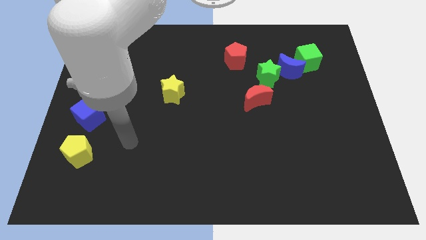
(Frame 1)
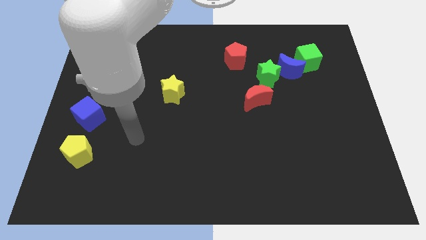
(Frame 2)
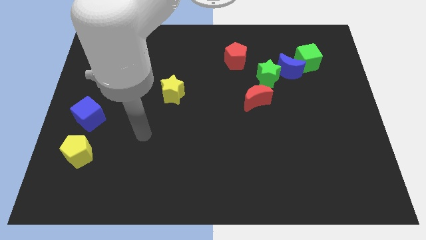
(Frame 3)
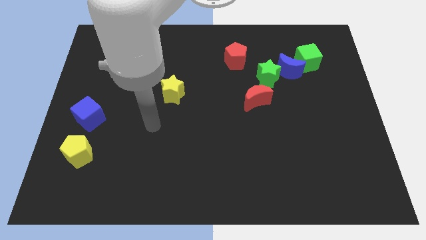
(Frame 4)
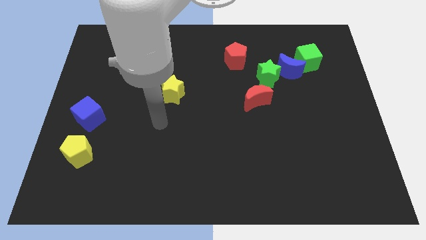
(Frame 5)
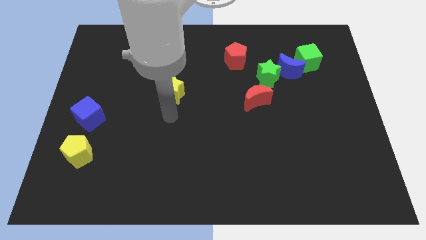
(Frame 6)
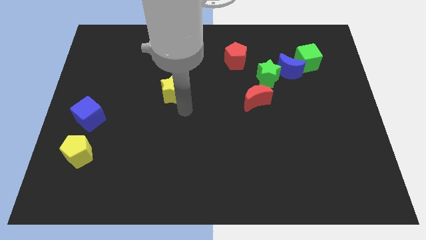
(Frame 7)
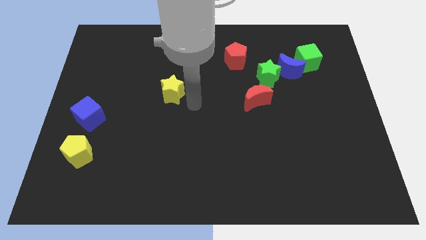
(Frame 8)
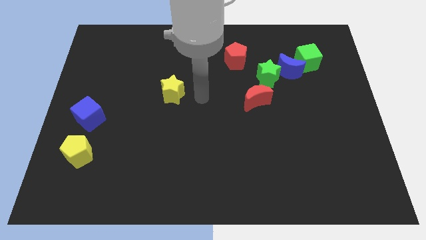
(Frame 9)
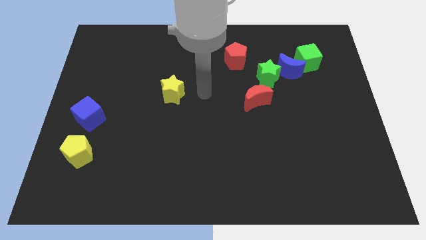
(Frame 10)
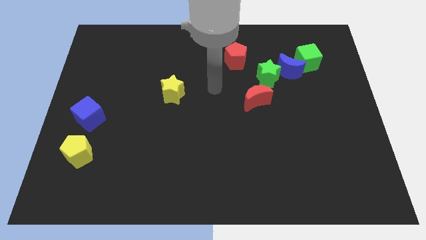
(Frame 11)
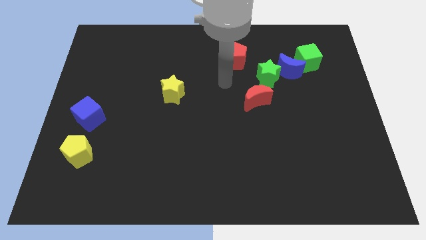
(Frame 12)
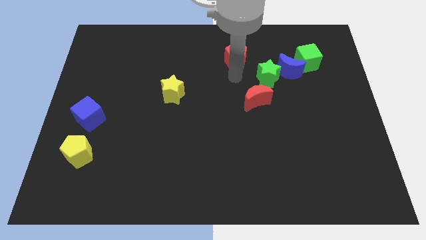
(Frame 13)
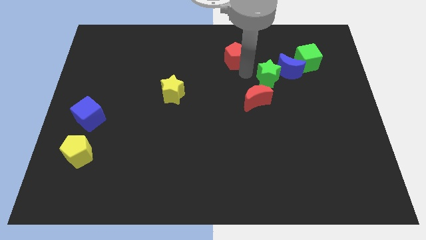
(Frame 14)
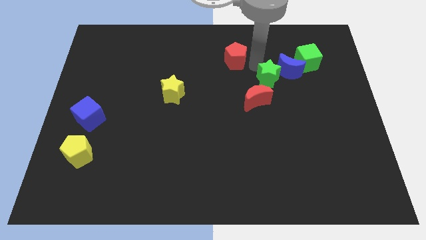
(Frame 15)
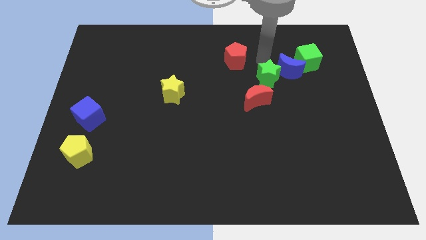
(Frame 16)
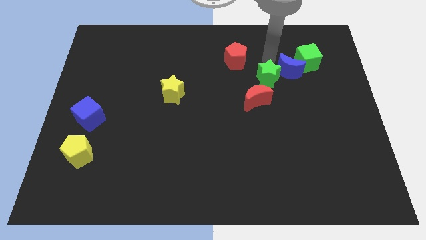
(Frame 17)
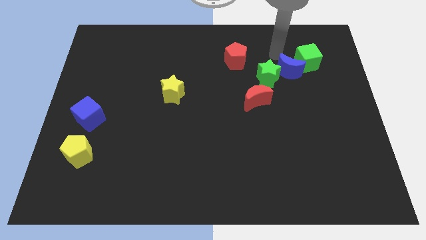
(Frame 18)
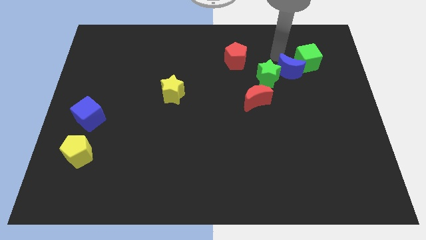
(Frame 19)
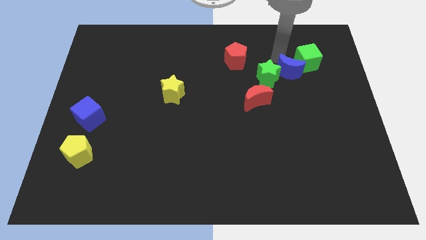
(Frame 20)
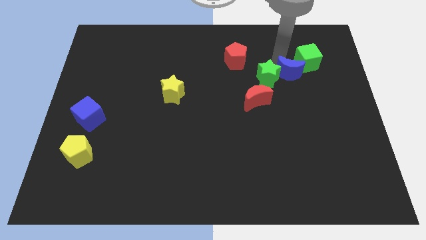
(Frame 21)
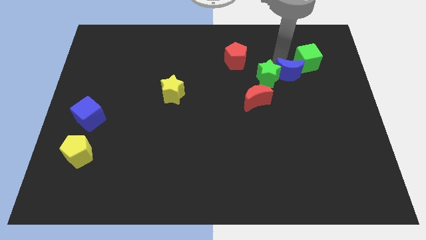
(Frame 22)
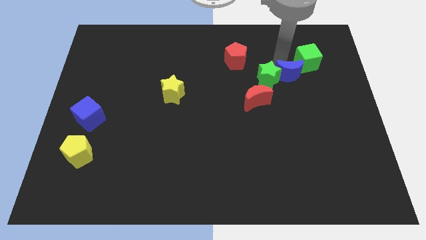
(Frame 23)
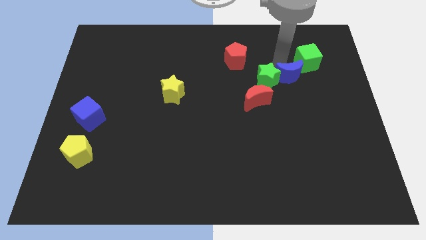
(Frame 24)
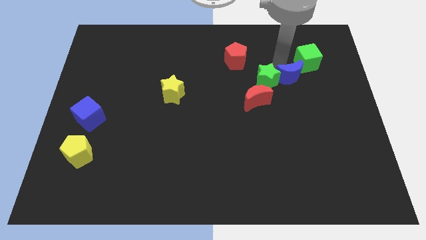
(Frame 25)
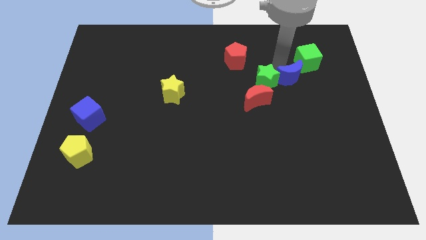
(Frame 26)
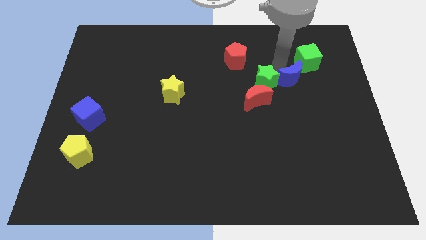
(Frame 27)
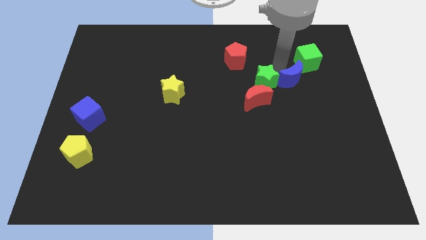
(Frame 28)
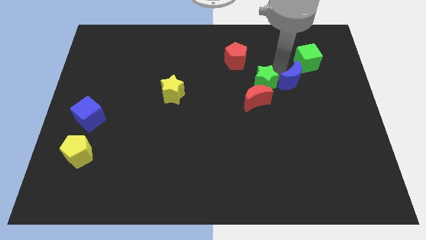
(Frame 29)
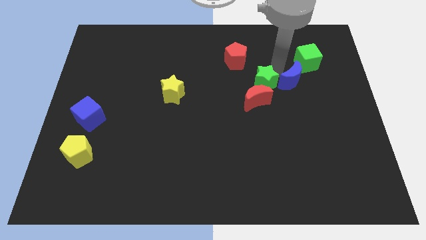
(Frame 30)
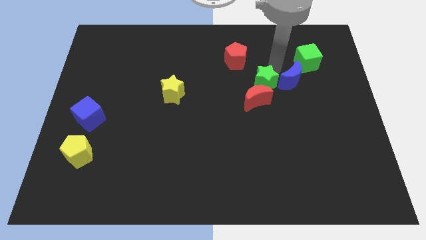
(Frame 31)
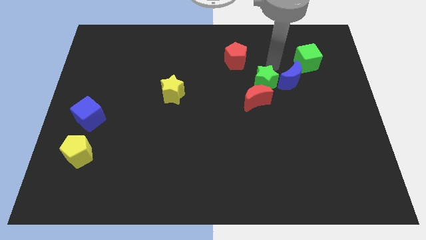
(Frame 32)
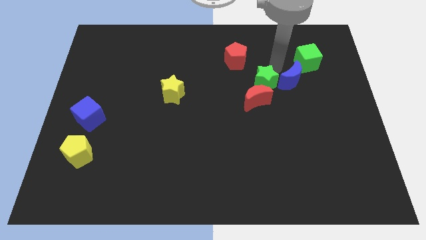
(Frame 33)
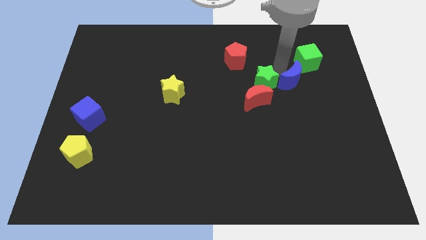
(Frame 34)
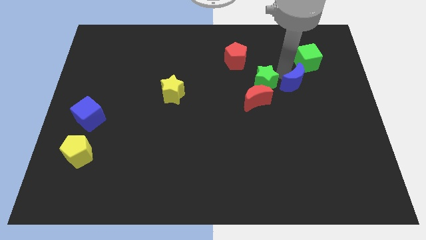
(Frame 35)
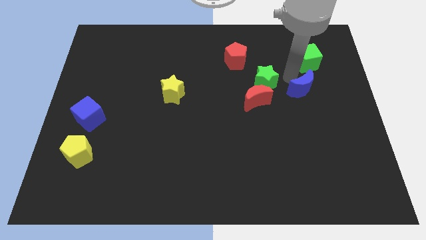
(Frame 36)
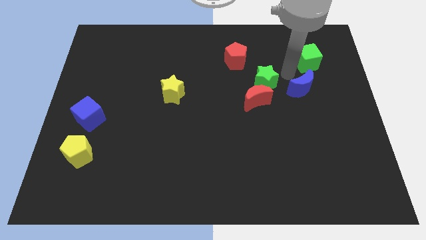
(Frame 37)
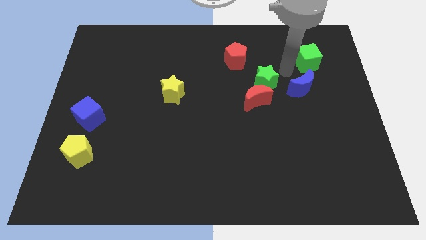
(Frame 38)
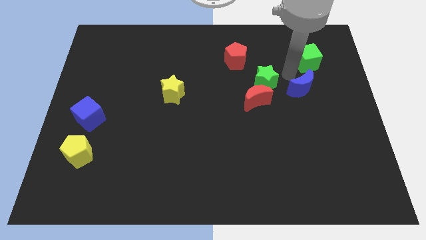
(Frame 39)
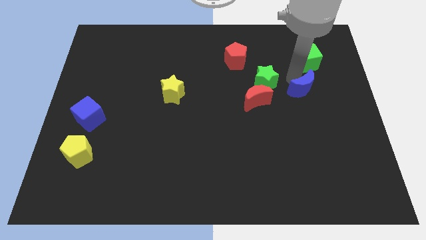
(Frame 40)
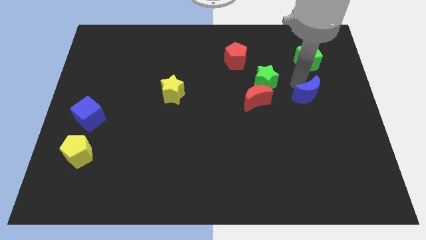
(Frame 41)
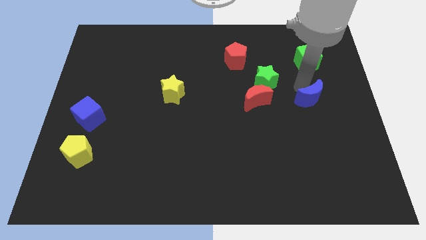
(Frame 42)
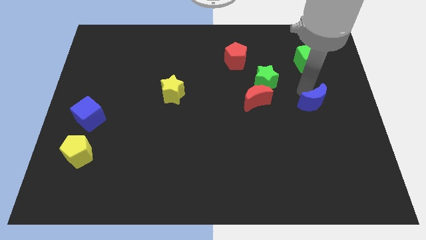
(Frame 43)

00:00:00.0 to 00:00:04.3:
separate the blue moon from the green star and green cube

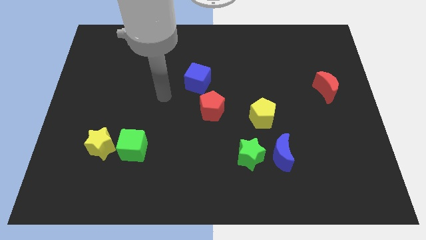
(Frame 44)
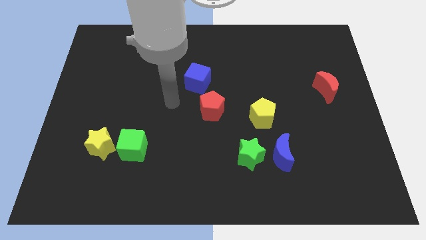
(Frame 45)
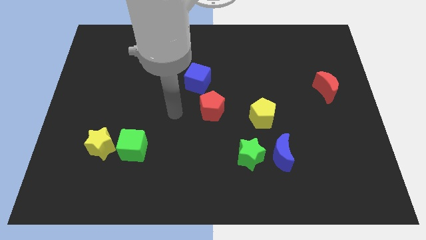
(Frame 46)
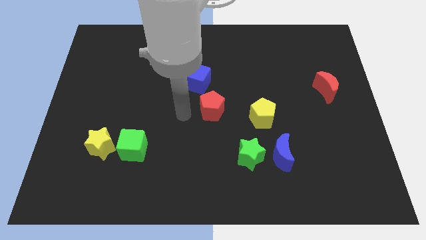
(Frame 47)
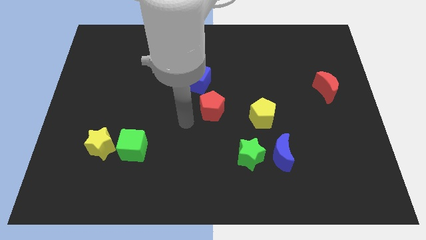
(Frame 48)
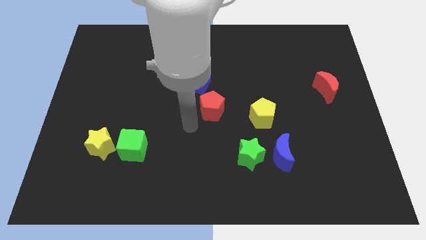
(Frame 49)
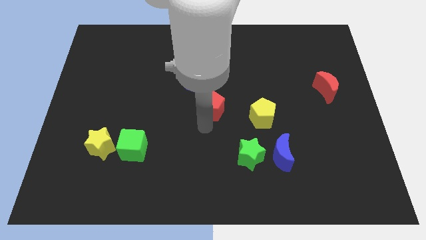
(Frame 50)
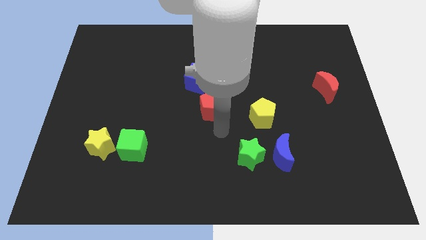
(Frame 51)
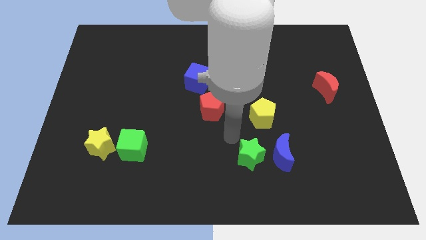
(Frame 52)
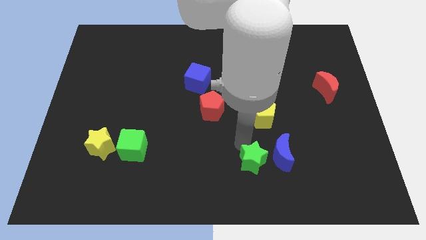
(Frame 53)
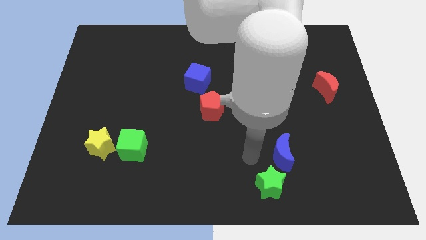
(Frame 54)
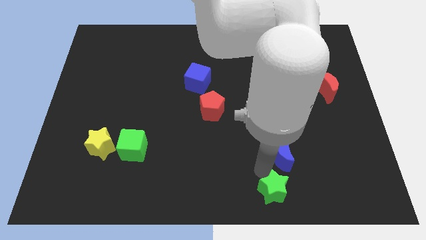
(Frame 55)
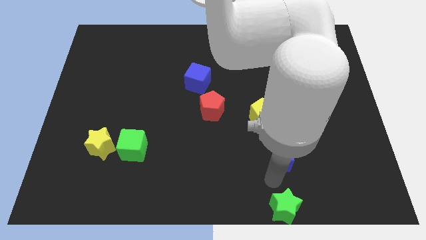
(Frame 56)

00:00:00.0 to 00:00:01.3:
pull the blue moon apart from the green star

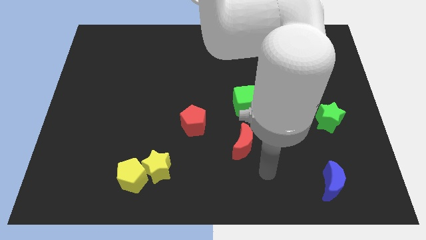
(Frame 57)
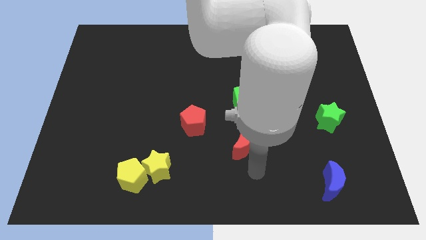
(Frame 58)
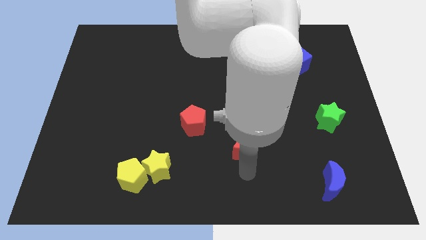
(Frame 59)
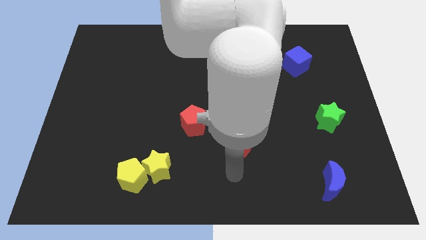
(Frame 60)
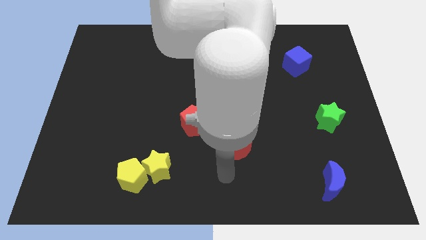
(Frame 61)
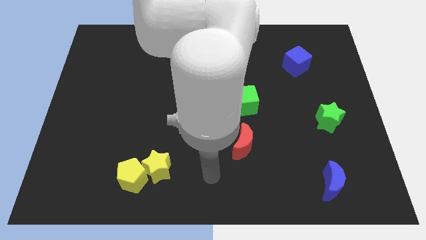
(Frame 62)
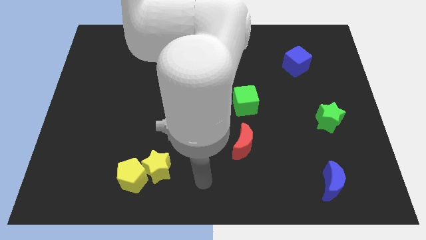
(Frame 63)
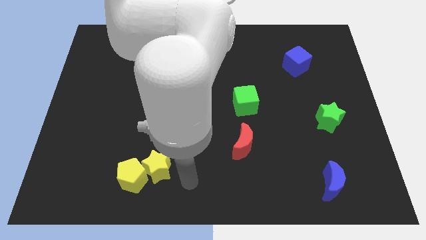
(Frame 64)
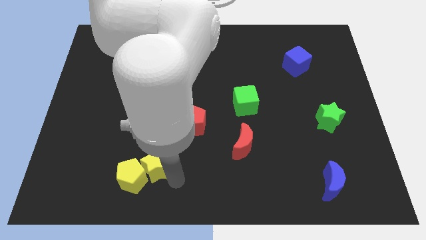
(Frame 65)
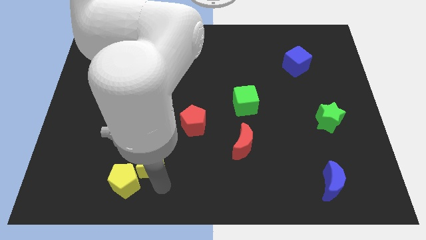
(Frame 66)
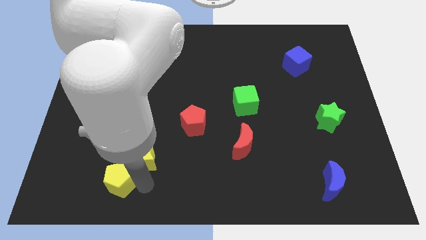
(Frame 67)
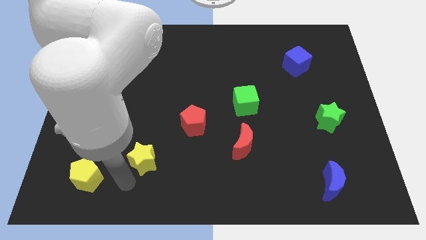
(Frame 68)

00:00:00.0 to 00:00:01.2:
separate the yellow star from the yellow pentagon

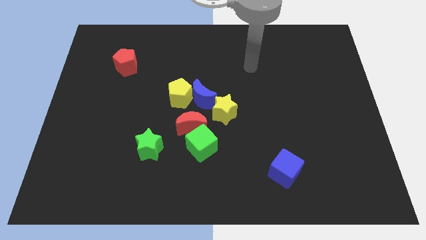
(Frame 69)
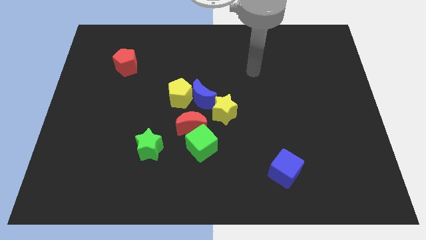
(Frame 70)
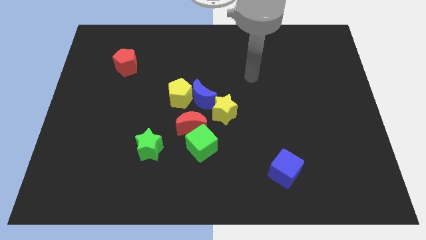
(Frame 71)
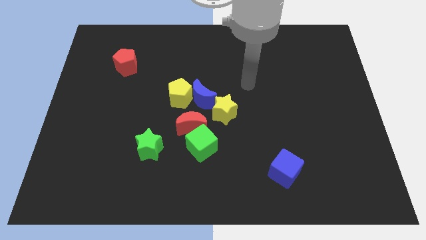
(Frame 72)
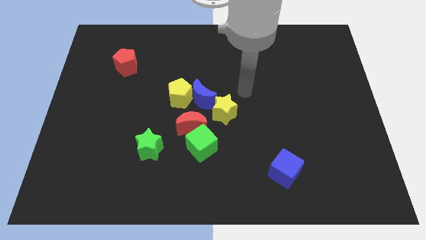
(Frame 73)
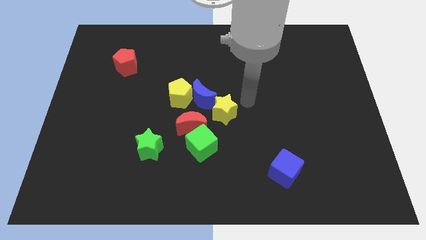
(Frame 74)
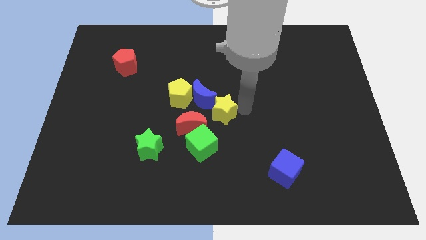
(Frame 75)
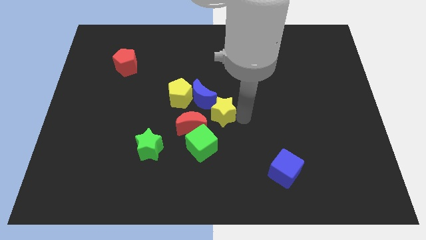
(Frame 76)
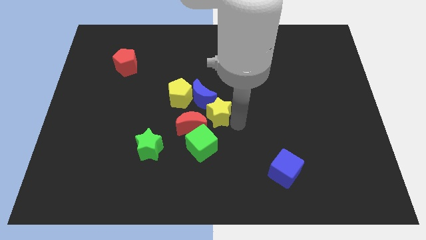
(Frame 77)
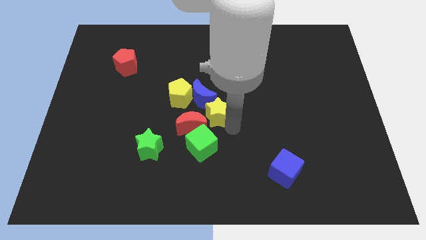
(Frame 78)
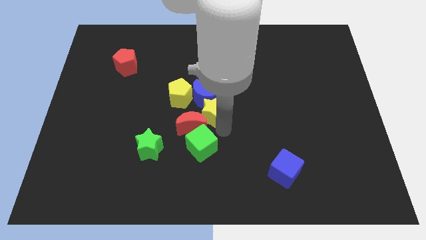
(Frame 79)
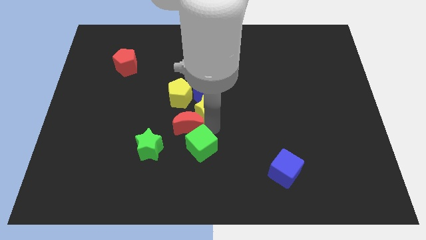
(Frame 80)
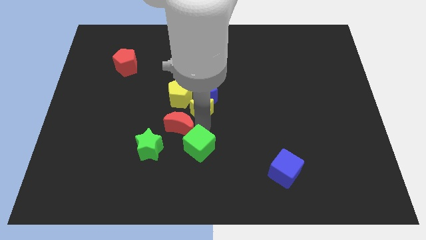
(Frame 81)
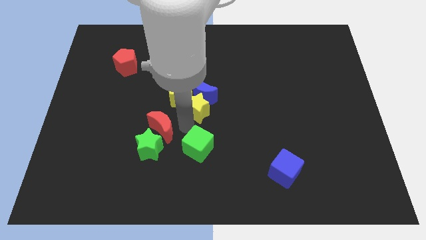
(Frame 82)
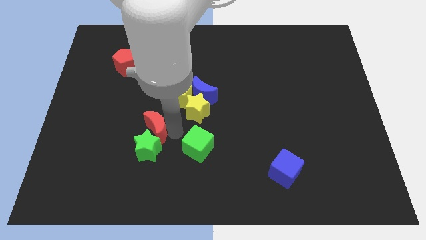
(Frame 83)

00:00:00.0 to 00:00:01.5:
move the green cube away from the red moon

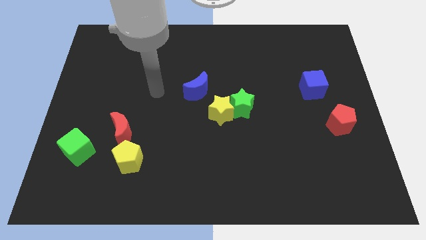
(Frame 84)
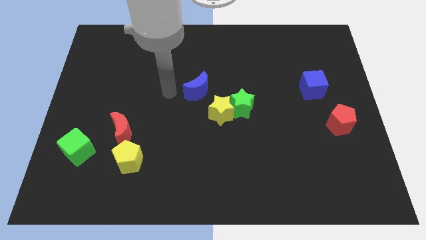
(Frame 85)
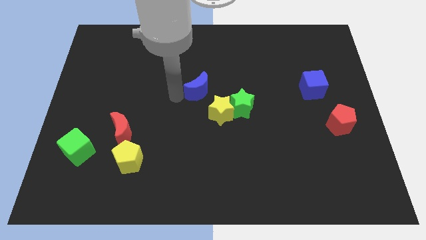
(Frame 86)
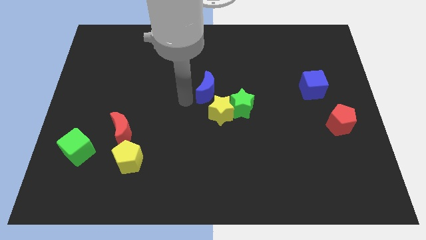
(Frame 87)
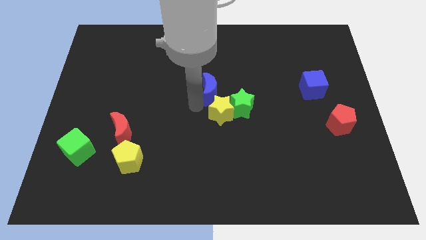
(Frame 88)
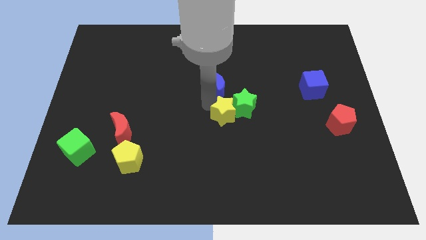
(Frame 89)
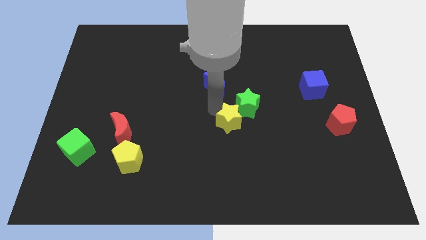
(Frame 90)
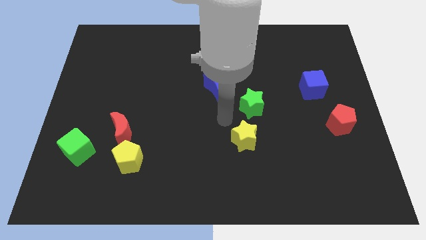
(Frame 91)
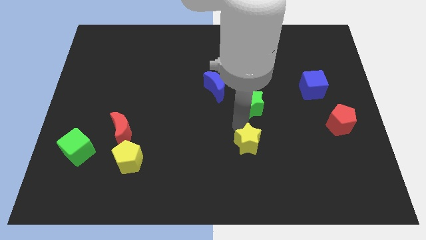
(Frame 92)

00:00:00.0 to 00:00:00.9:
pull the green star apart from the yellow star

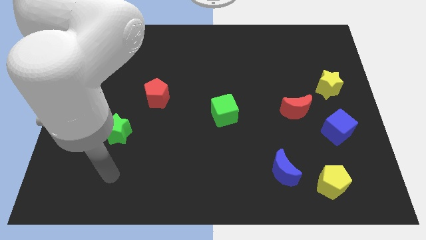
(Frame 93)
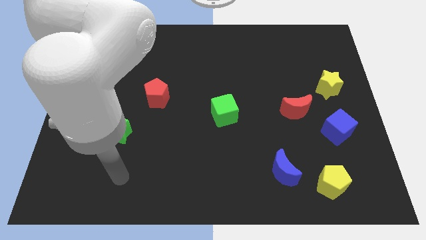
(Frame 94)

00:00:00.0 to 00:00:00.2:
separate the blue moon from the yellow pentagon
